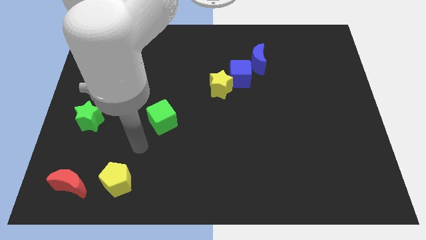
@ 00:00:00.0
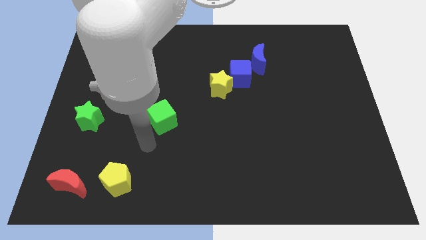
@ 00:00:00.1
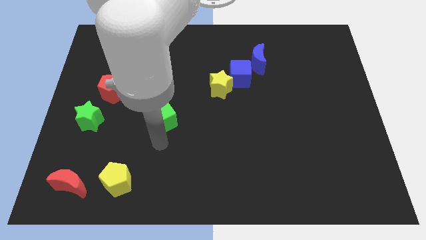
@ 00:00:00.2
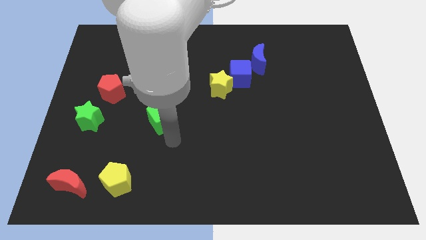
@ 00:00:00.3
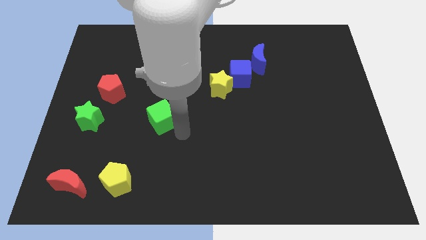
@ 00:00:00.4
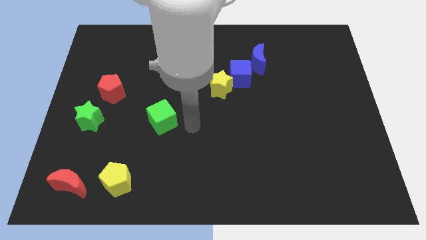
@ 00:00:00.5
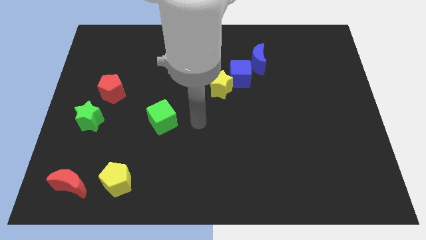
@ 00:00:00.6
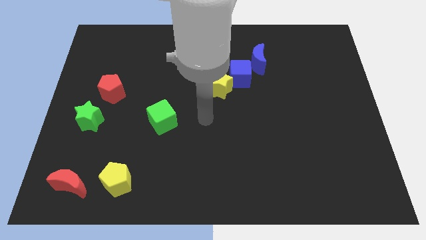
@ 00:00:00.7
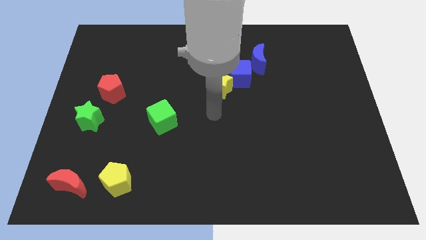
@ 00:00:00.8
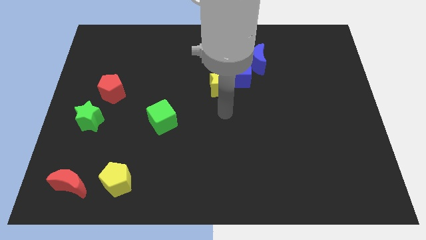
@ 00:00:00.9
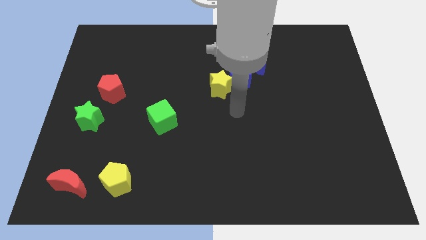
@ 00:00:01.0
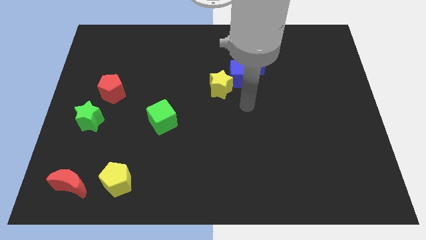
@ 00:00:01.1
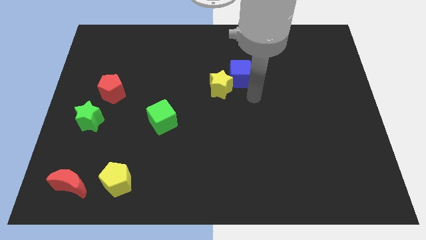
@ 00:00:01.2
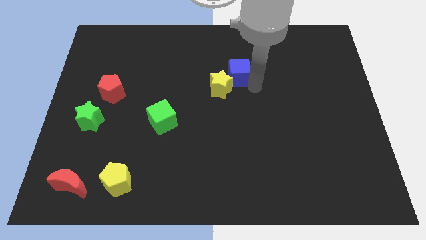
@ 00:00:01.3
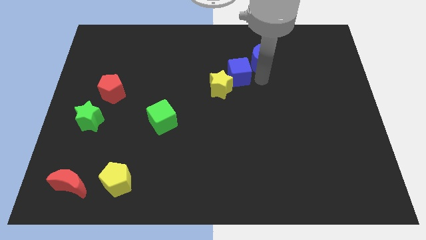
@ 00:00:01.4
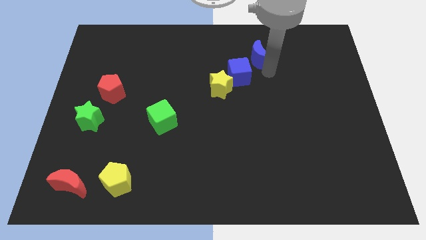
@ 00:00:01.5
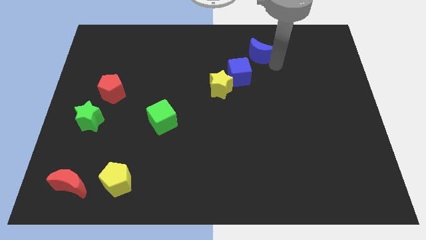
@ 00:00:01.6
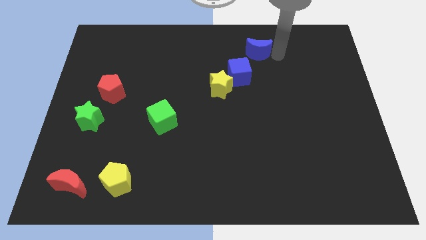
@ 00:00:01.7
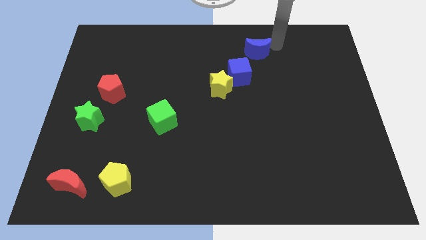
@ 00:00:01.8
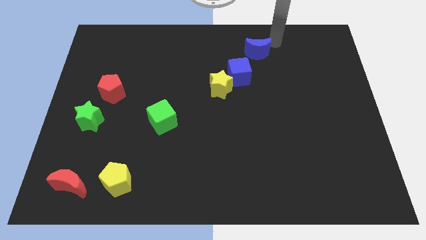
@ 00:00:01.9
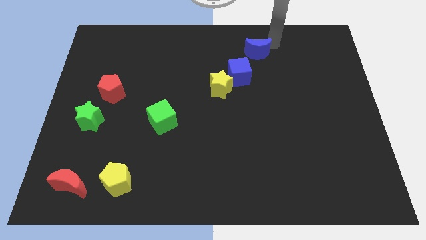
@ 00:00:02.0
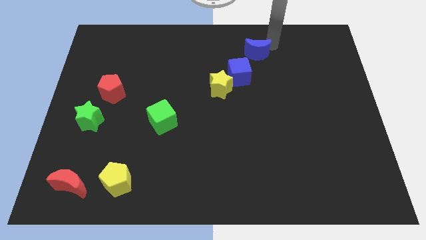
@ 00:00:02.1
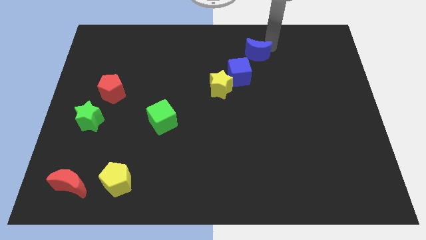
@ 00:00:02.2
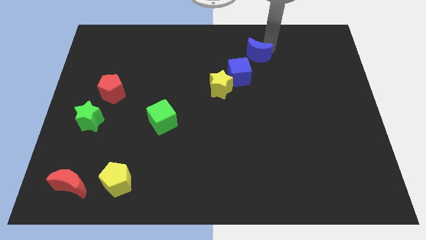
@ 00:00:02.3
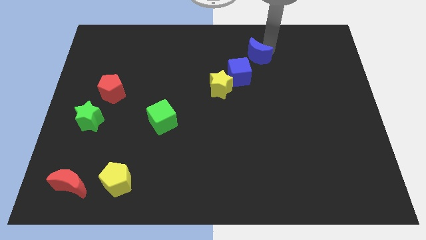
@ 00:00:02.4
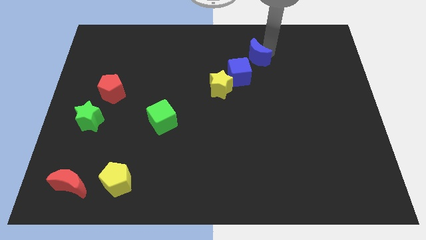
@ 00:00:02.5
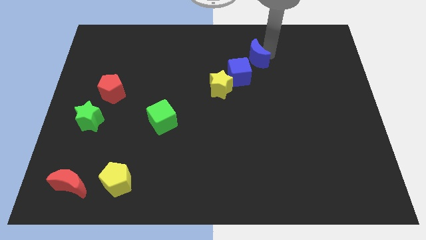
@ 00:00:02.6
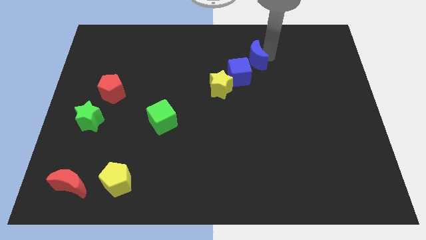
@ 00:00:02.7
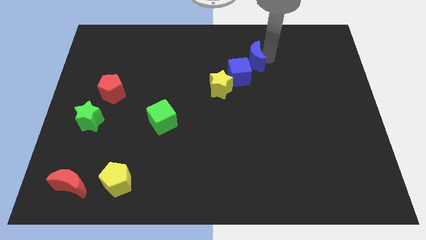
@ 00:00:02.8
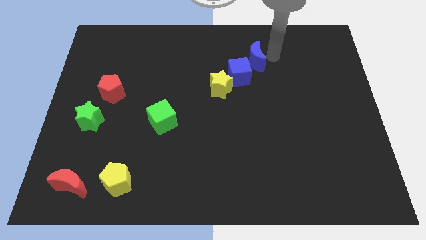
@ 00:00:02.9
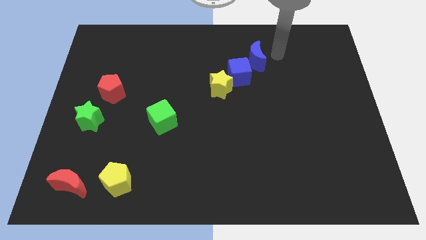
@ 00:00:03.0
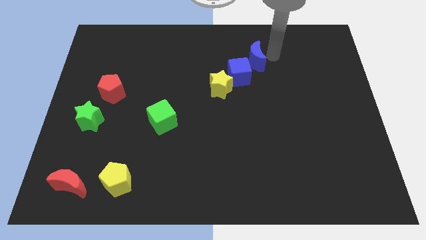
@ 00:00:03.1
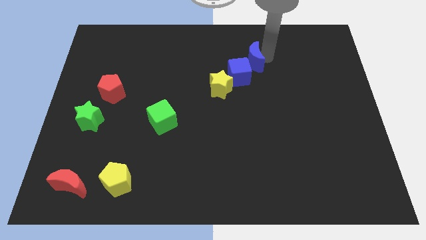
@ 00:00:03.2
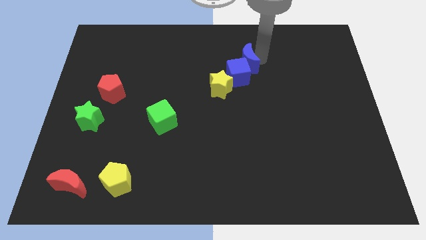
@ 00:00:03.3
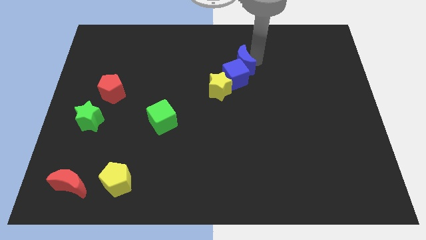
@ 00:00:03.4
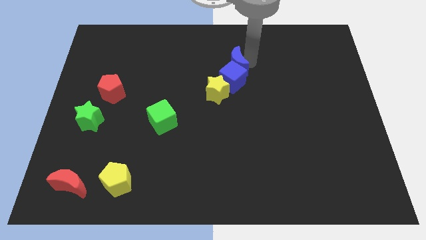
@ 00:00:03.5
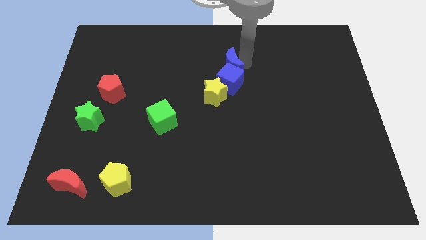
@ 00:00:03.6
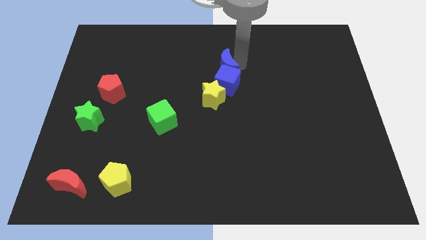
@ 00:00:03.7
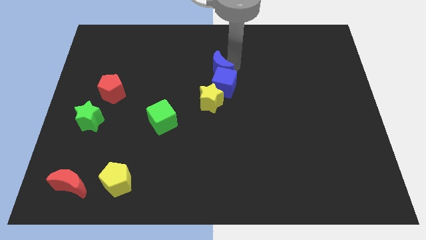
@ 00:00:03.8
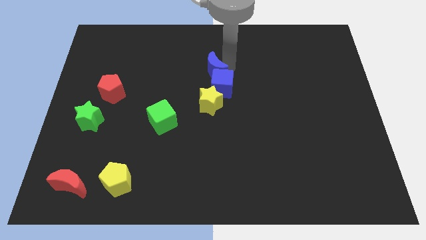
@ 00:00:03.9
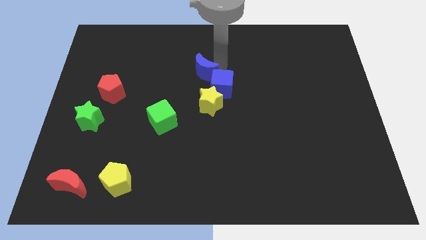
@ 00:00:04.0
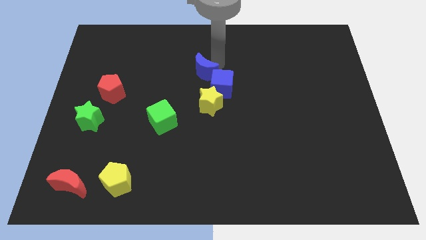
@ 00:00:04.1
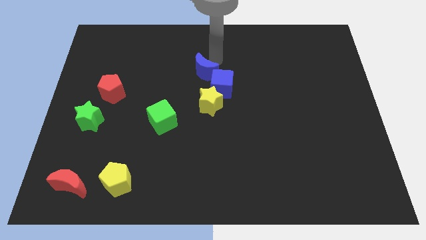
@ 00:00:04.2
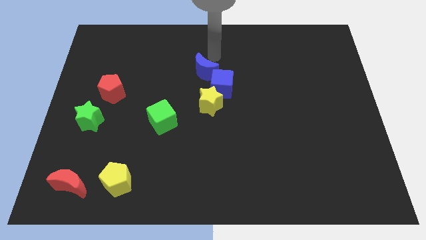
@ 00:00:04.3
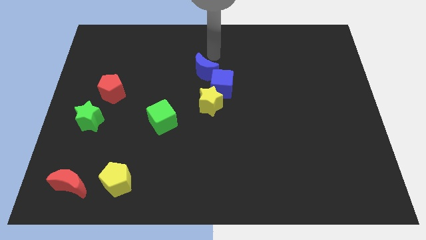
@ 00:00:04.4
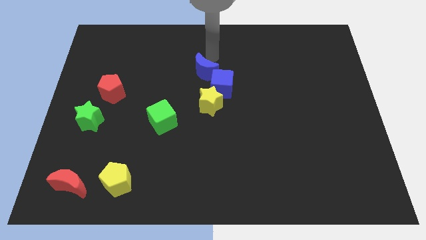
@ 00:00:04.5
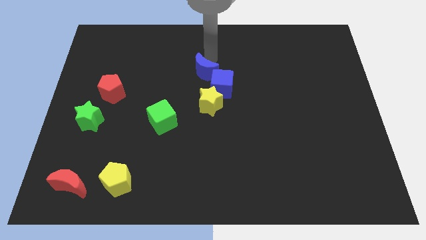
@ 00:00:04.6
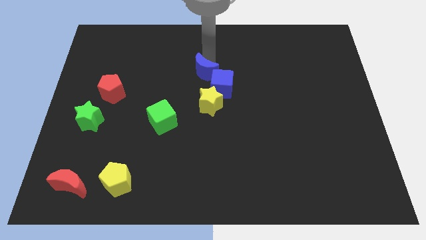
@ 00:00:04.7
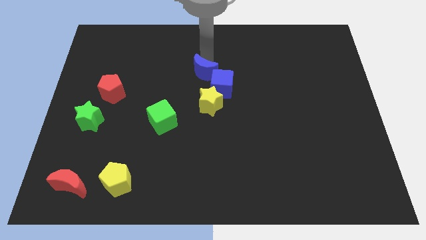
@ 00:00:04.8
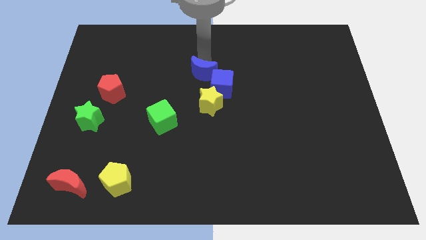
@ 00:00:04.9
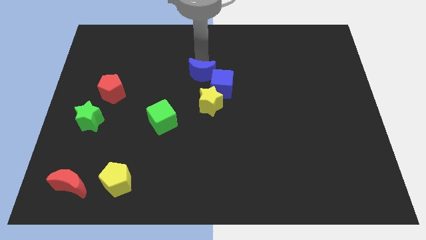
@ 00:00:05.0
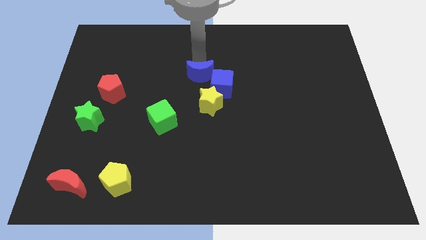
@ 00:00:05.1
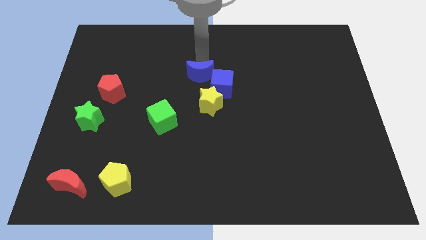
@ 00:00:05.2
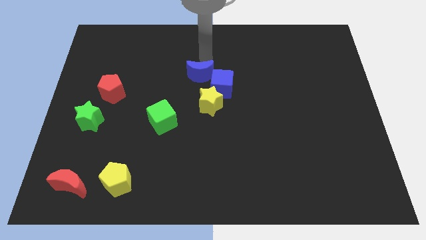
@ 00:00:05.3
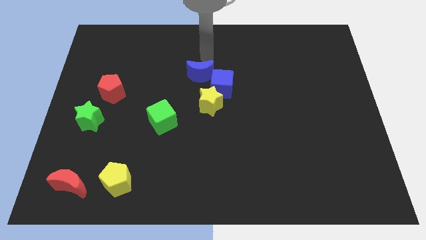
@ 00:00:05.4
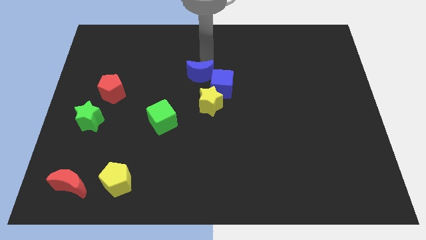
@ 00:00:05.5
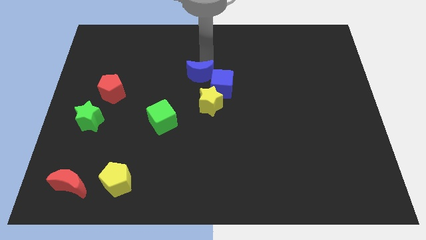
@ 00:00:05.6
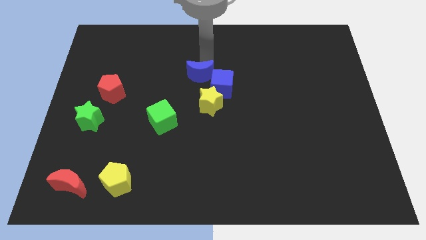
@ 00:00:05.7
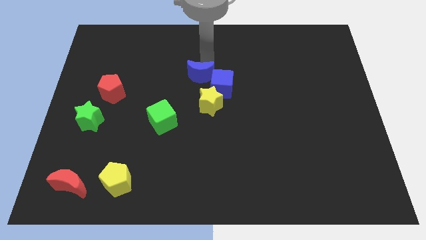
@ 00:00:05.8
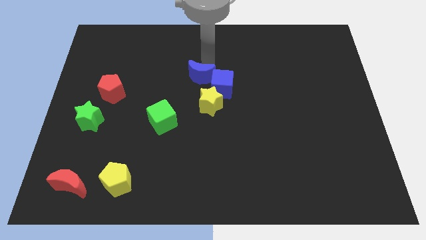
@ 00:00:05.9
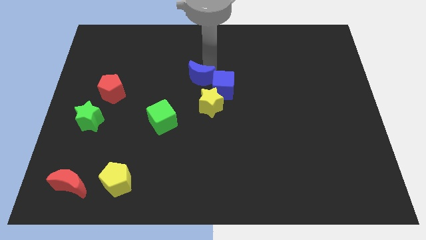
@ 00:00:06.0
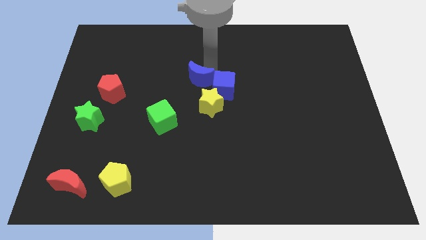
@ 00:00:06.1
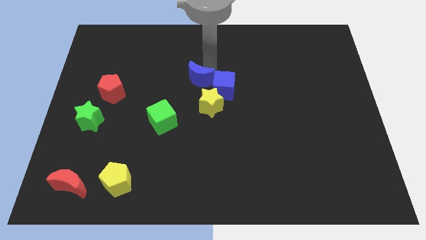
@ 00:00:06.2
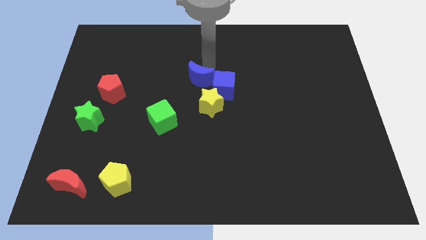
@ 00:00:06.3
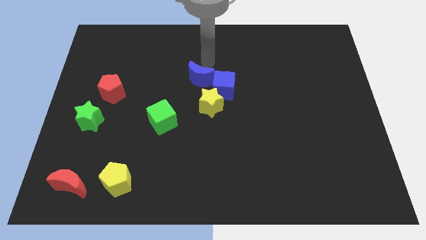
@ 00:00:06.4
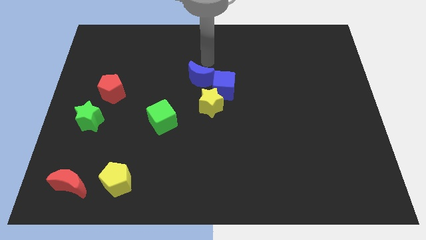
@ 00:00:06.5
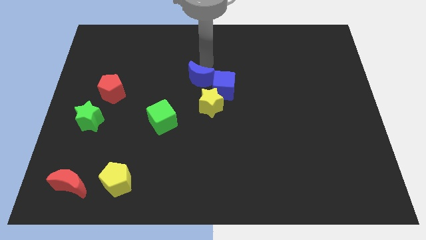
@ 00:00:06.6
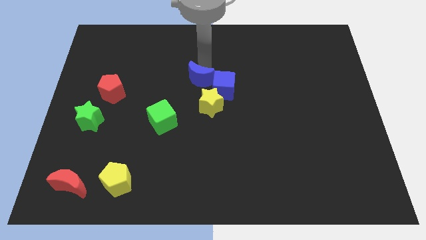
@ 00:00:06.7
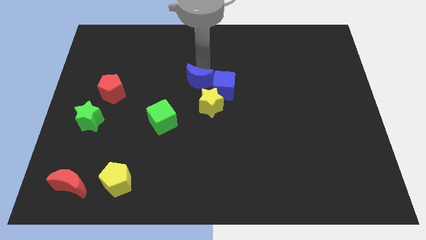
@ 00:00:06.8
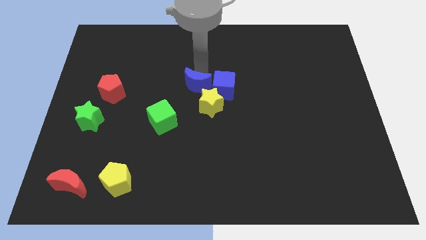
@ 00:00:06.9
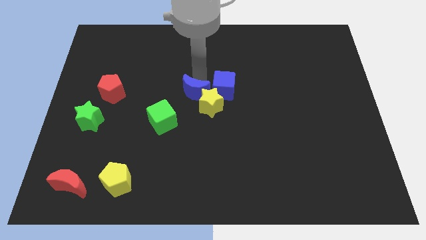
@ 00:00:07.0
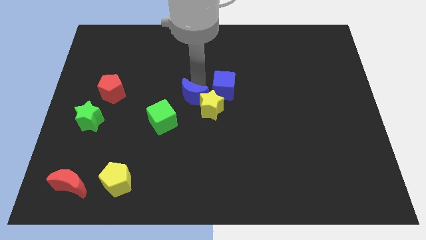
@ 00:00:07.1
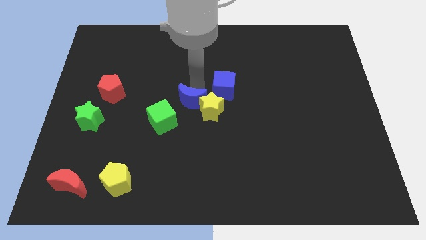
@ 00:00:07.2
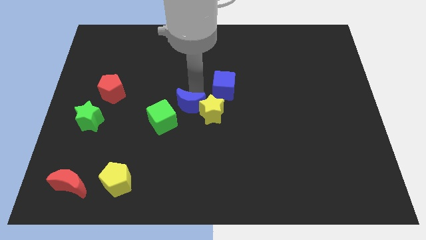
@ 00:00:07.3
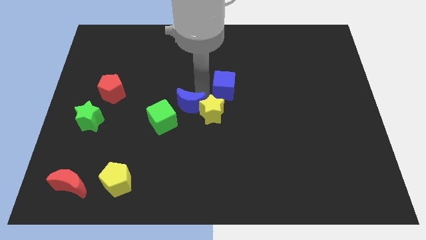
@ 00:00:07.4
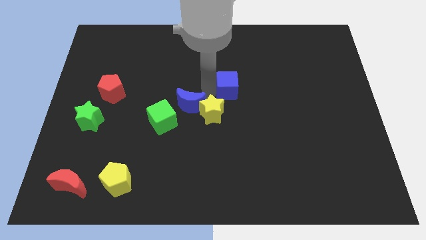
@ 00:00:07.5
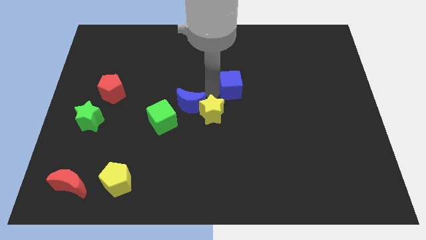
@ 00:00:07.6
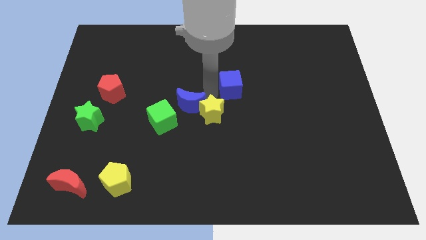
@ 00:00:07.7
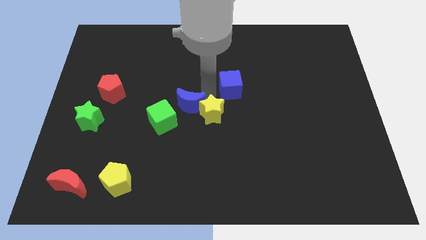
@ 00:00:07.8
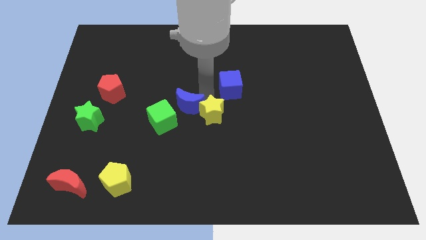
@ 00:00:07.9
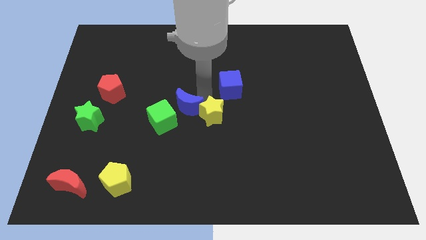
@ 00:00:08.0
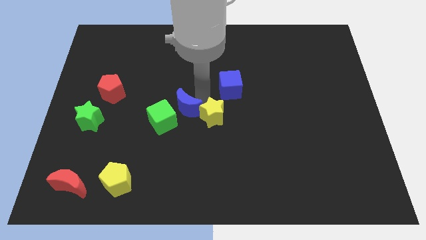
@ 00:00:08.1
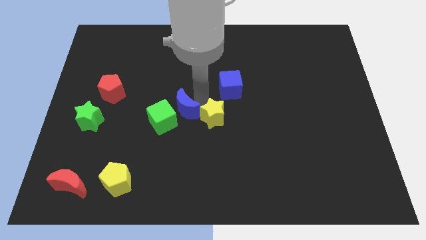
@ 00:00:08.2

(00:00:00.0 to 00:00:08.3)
move the blue moon to the green cube
